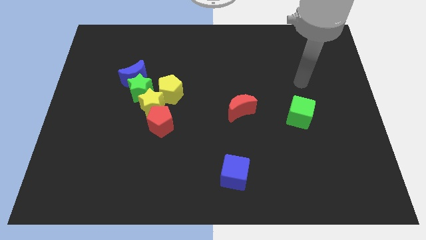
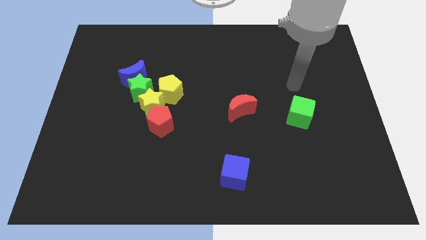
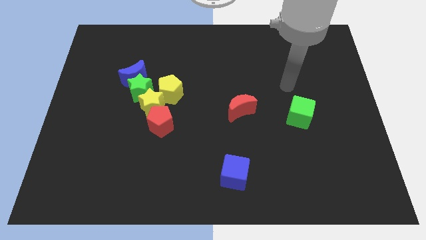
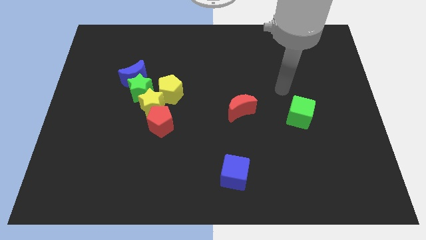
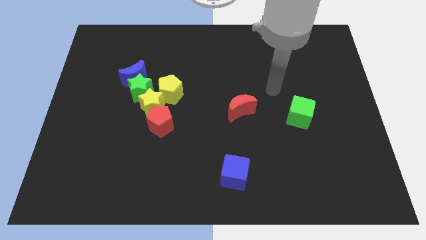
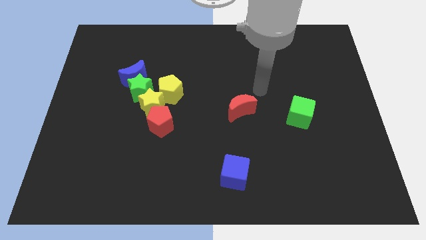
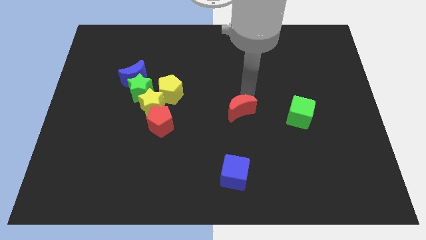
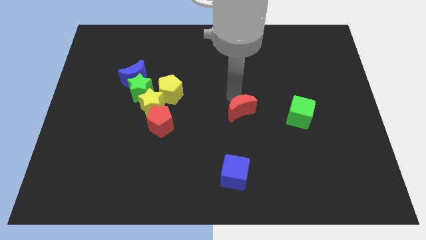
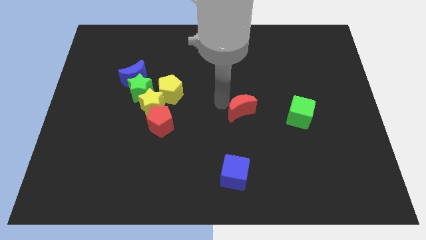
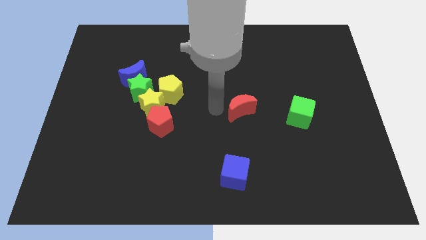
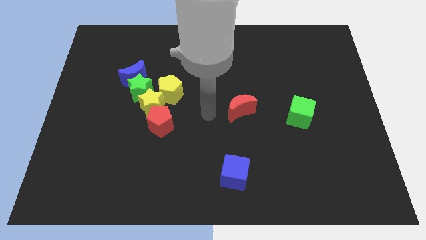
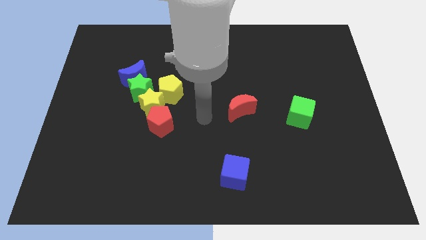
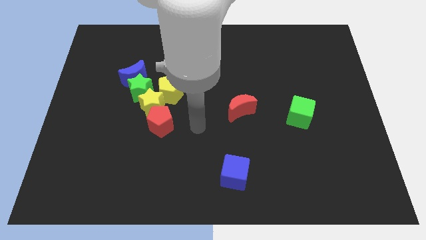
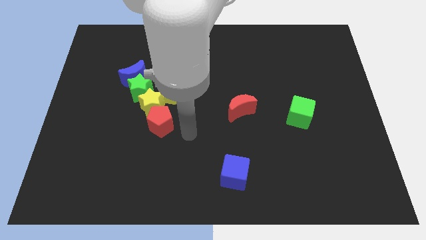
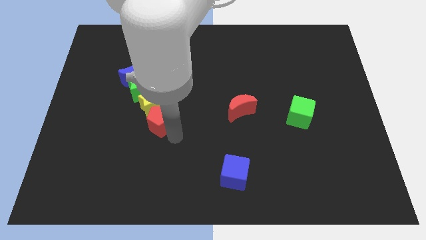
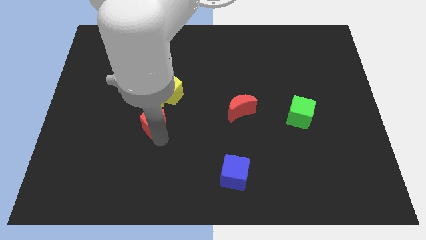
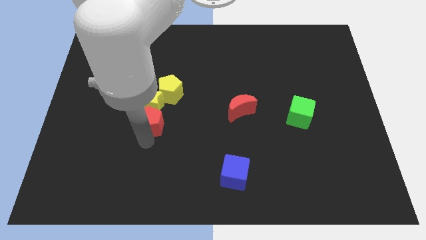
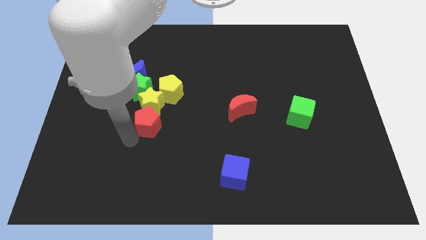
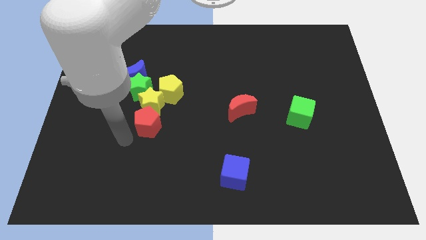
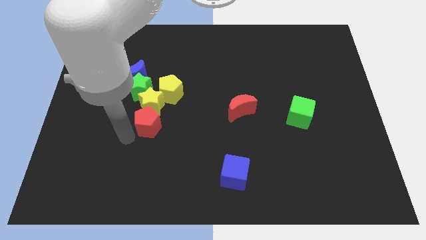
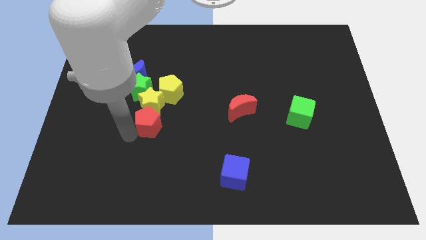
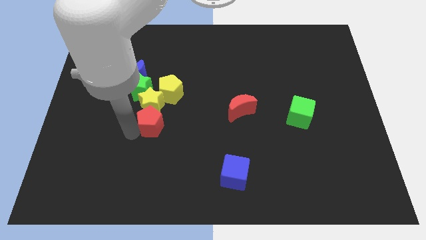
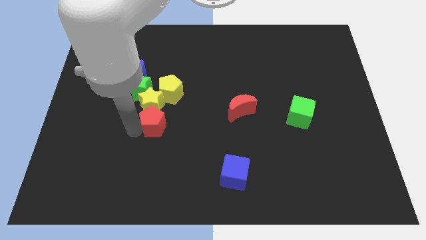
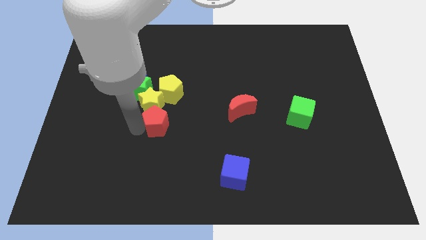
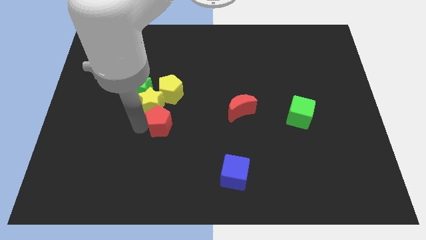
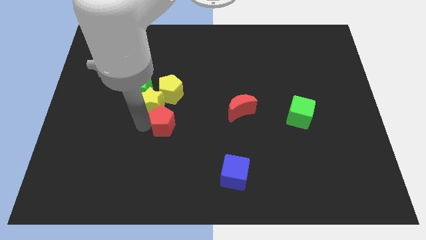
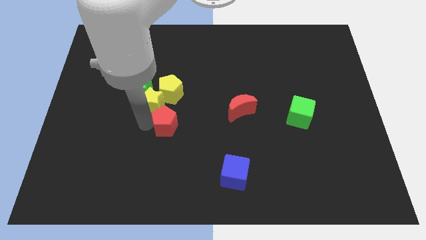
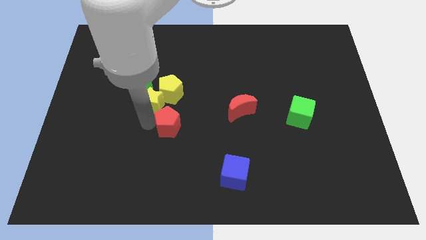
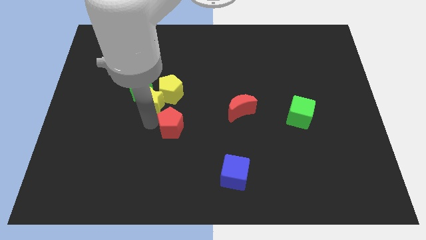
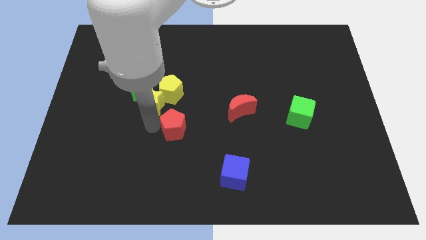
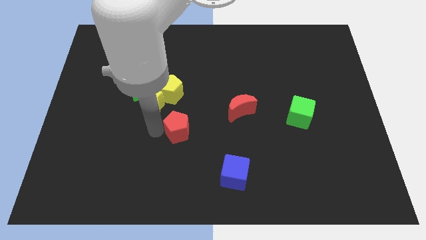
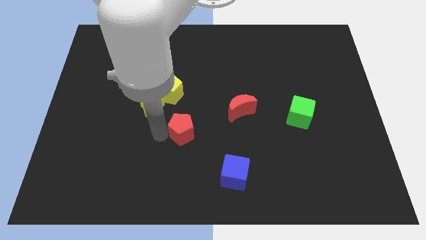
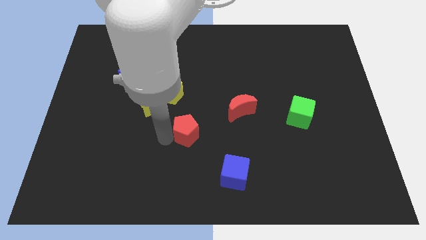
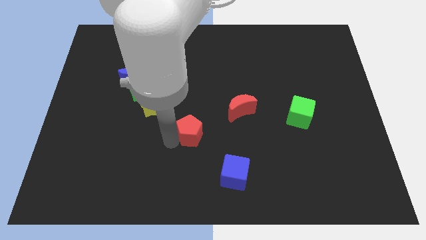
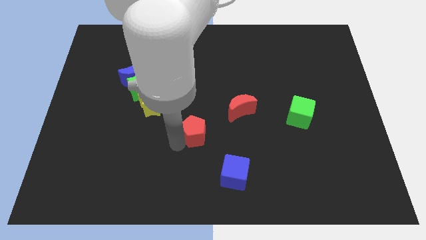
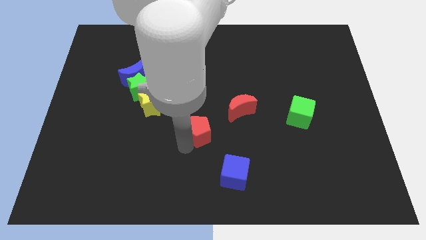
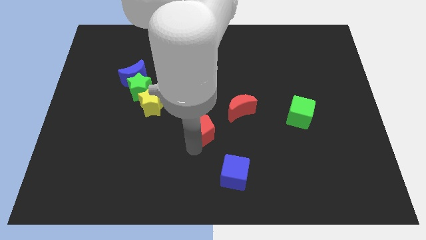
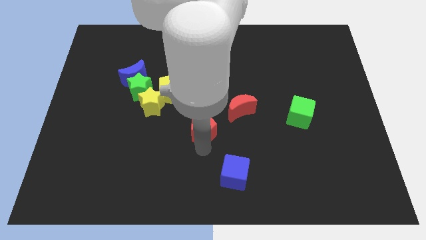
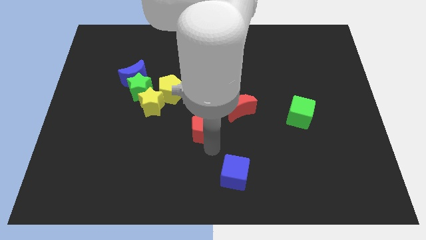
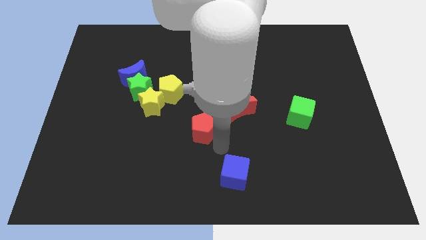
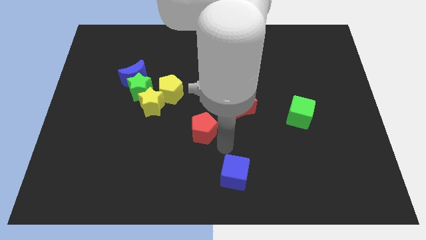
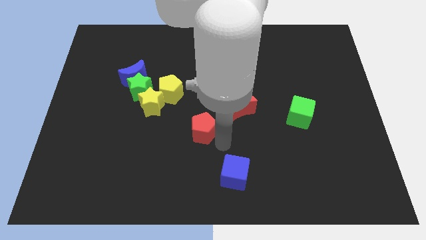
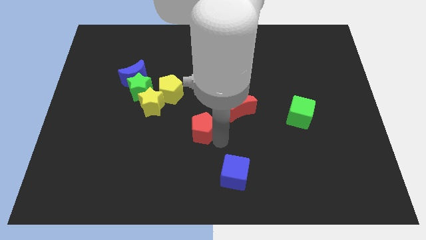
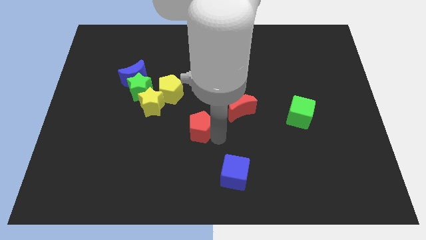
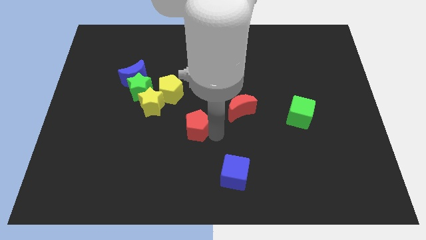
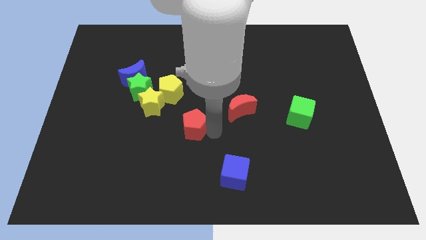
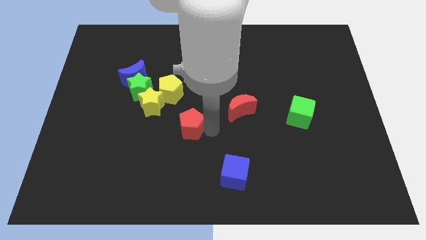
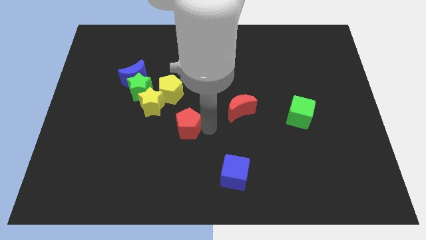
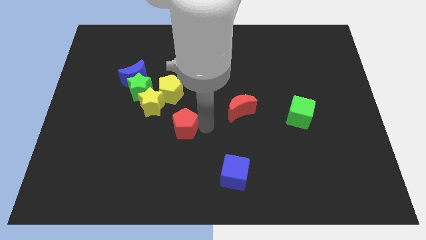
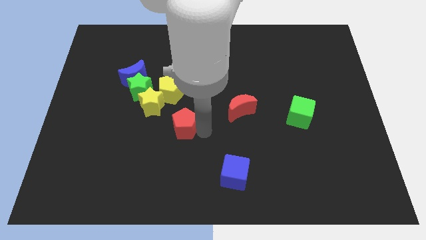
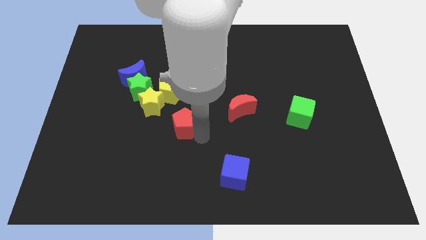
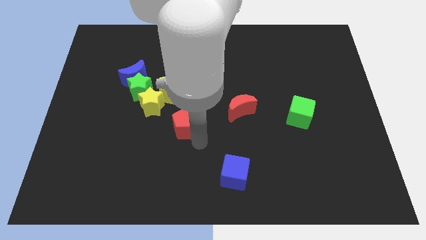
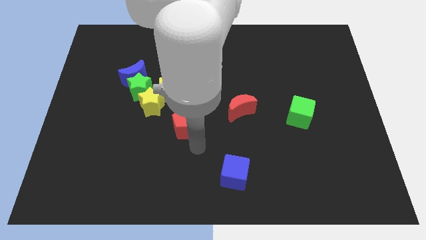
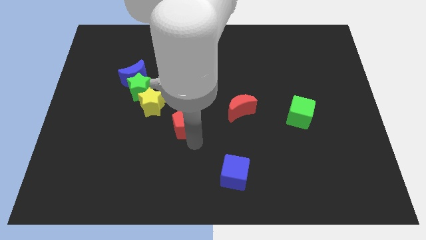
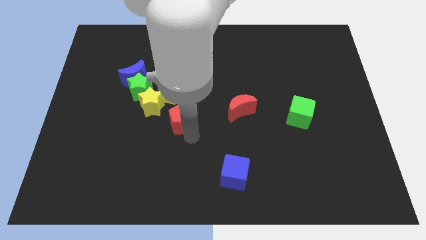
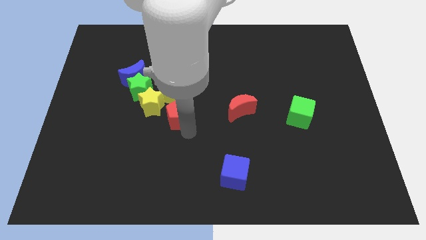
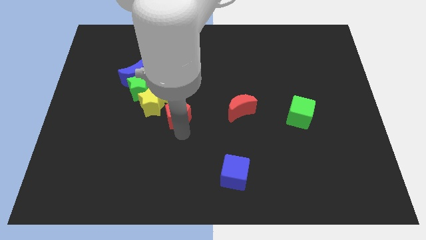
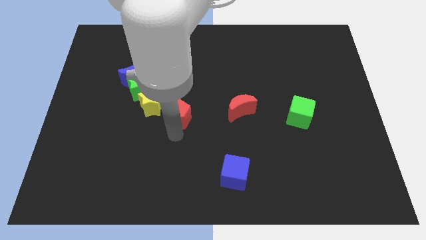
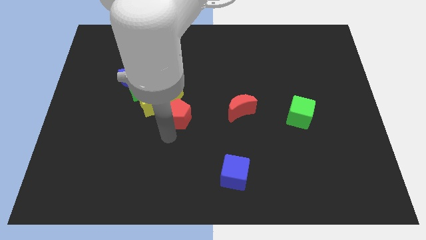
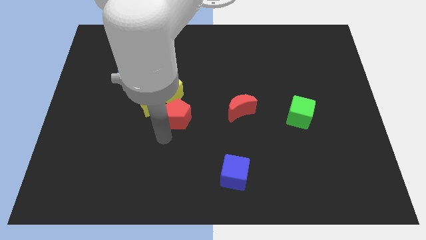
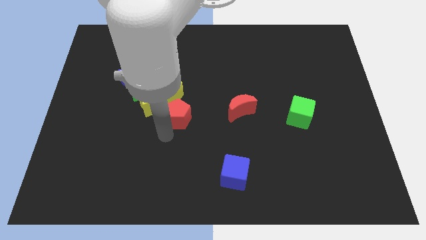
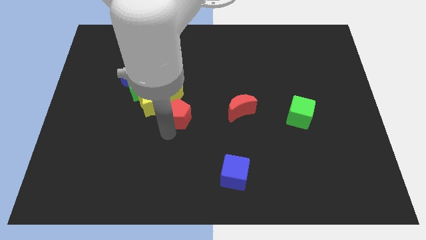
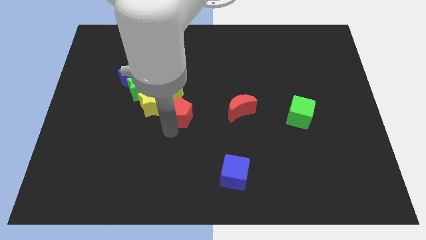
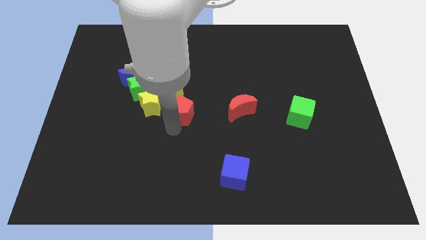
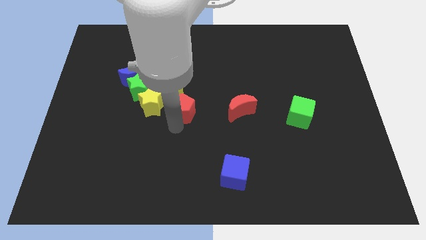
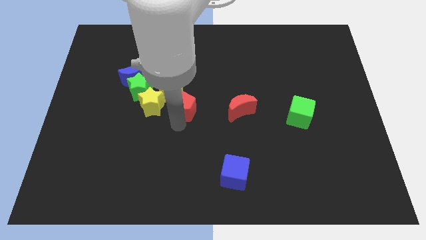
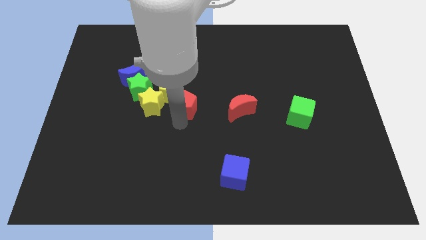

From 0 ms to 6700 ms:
slightly slide the red pentagon upwards and then to the right

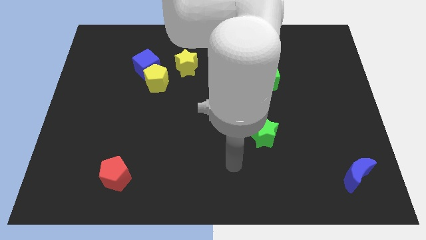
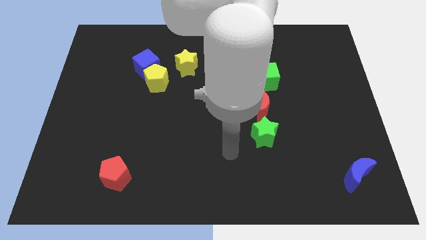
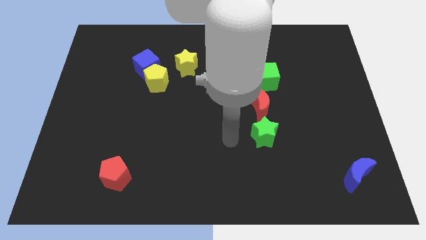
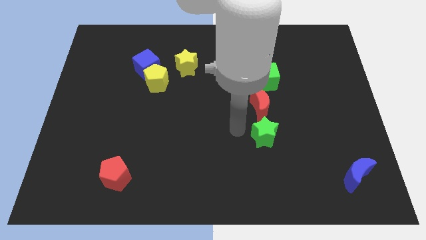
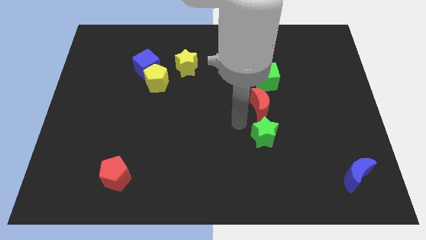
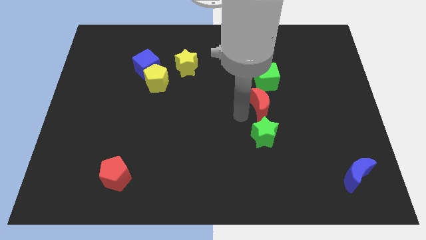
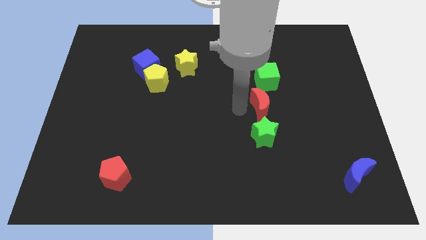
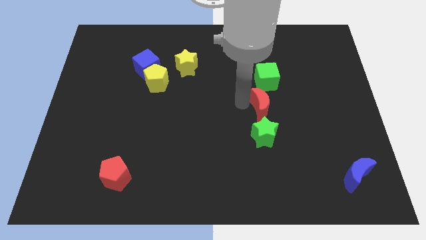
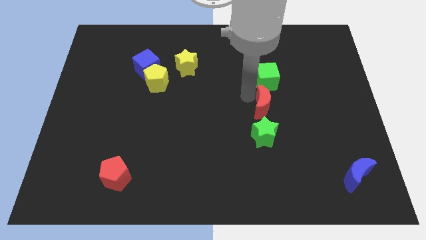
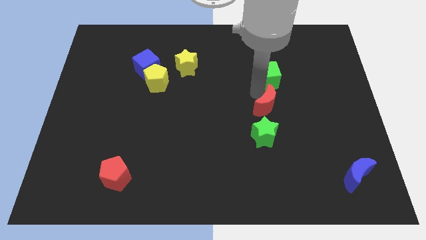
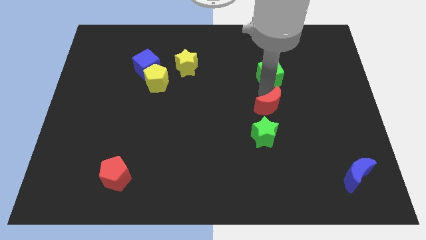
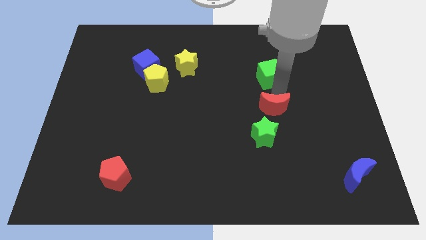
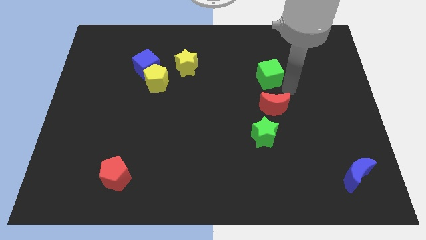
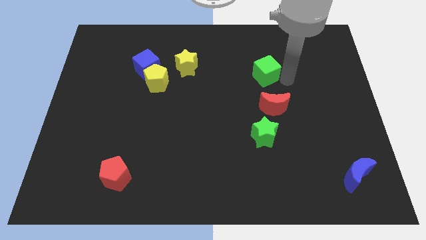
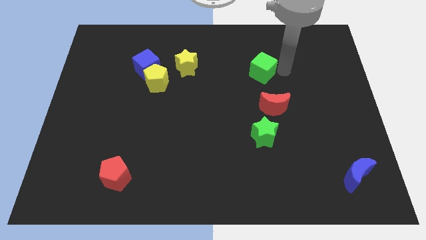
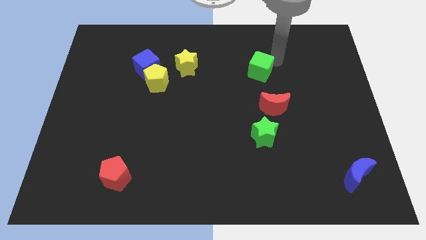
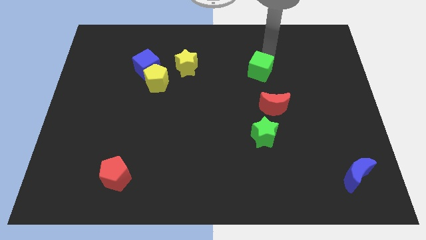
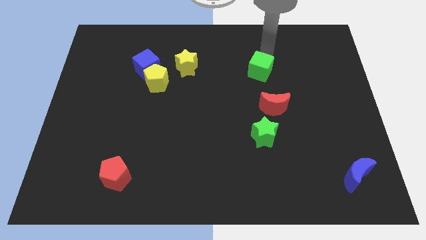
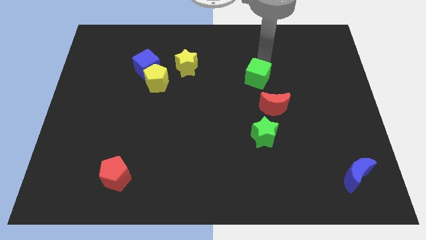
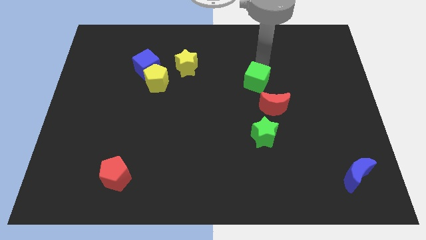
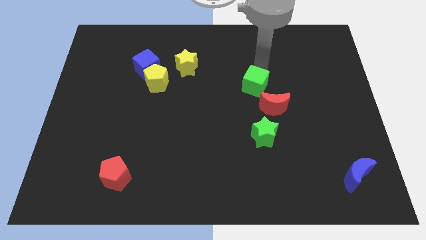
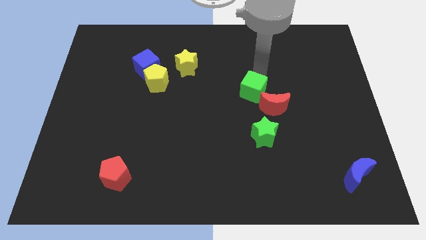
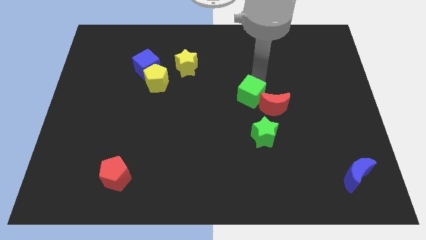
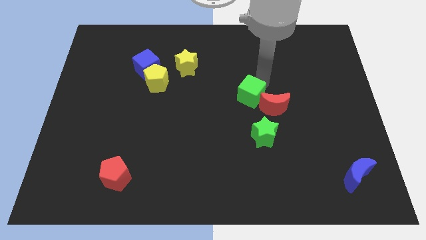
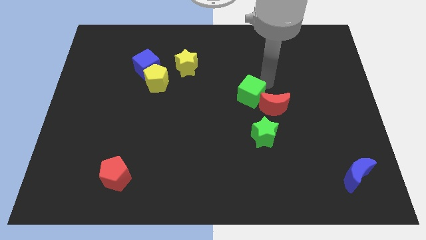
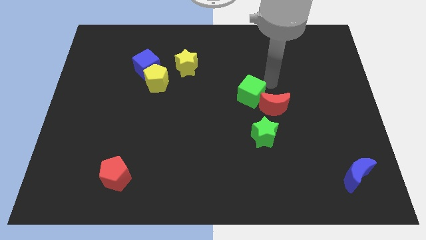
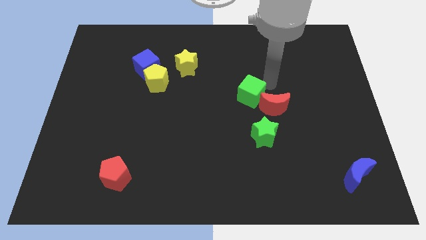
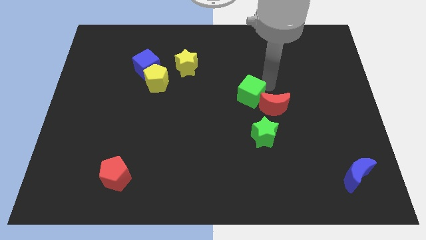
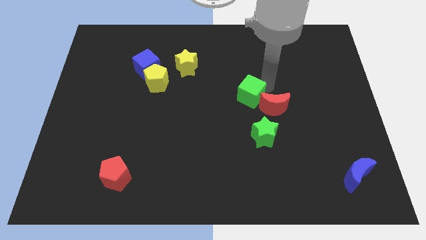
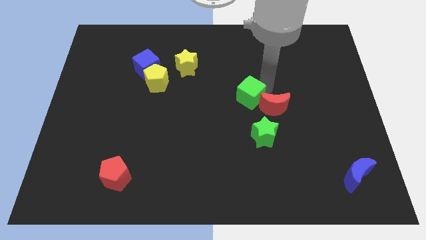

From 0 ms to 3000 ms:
push the green cube downwards and to the left a little
